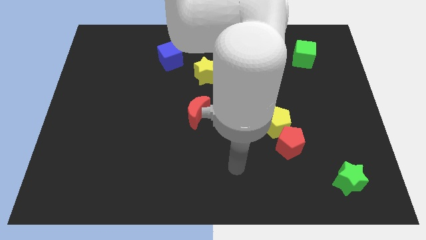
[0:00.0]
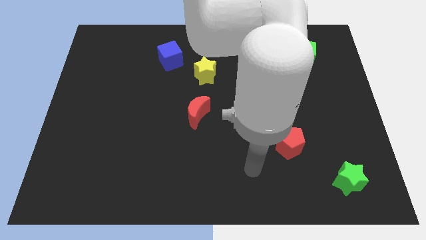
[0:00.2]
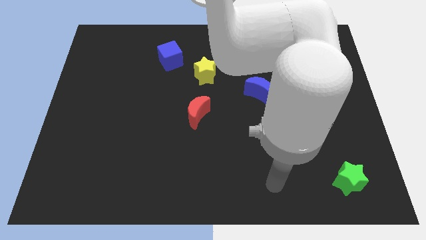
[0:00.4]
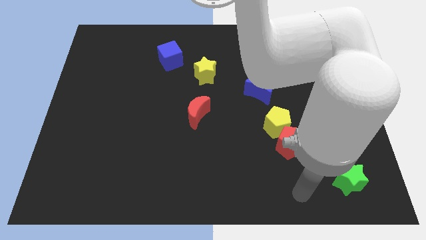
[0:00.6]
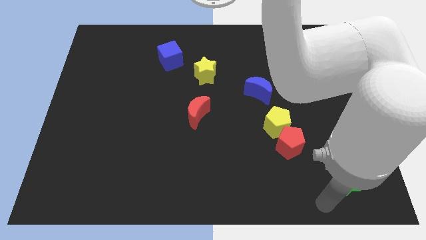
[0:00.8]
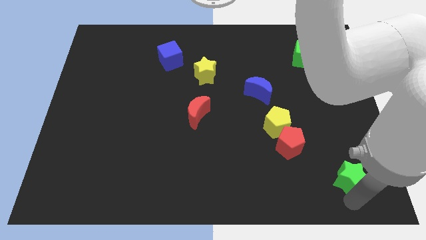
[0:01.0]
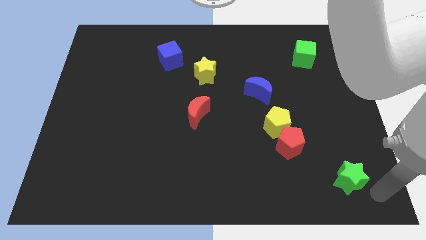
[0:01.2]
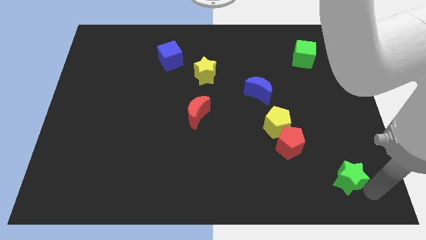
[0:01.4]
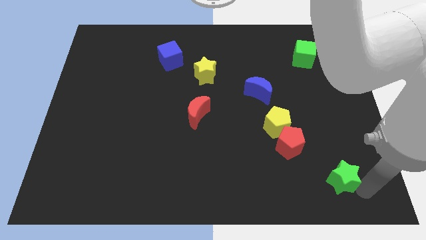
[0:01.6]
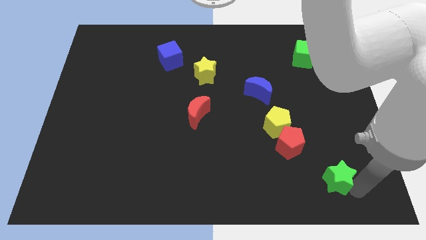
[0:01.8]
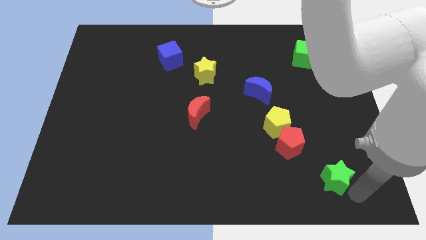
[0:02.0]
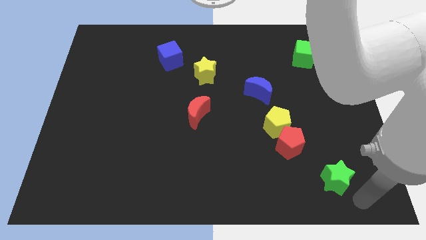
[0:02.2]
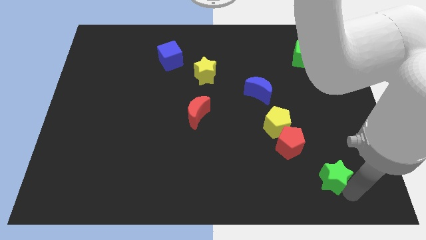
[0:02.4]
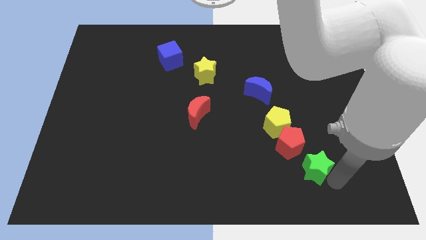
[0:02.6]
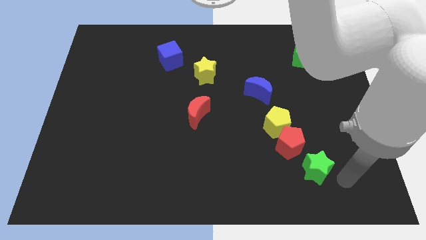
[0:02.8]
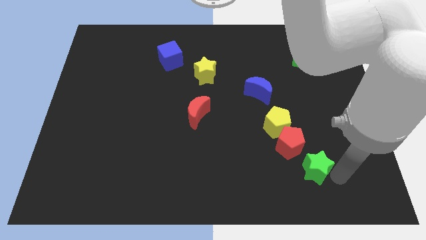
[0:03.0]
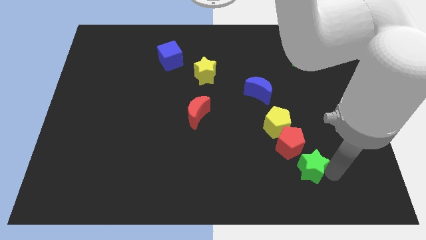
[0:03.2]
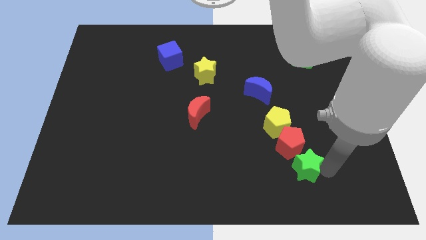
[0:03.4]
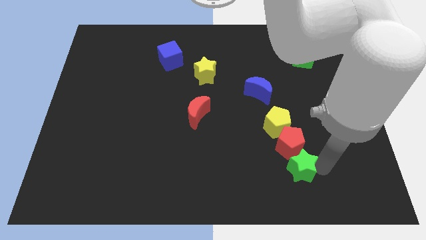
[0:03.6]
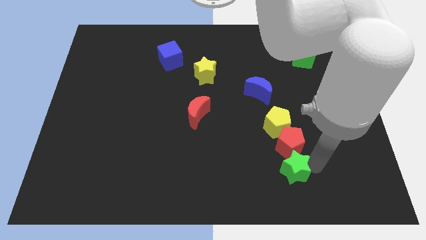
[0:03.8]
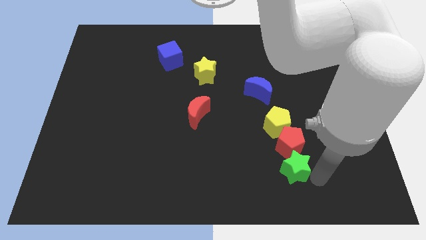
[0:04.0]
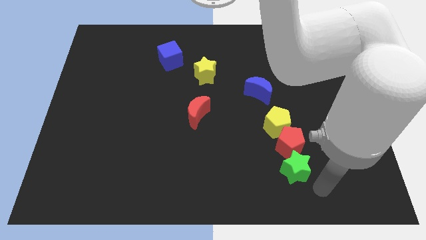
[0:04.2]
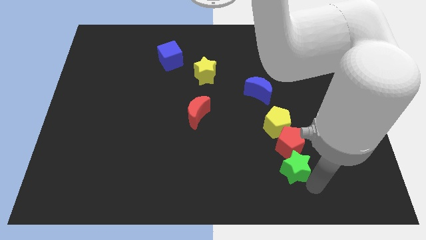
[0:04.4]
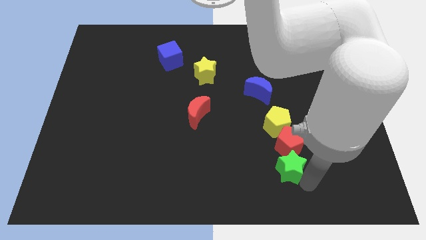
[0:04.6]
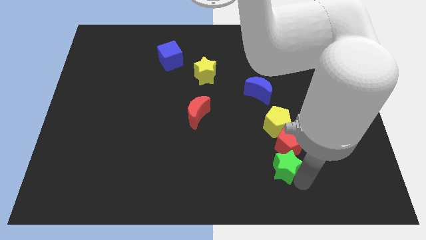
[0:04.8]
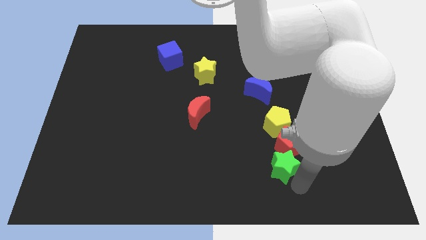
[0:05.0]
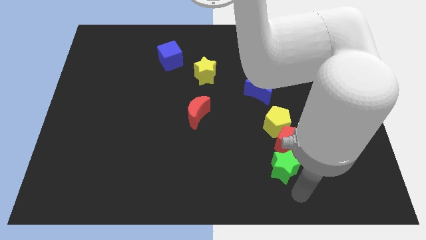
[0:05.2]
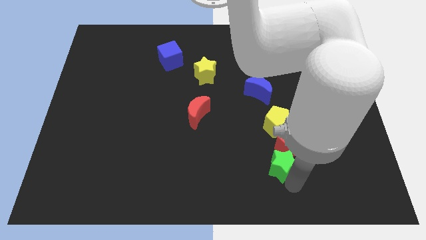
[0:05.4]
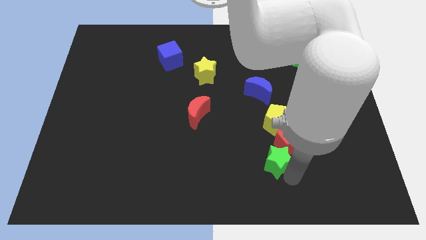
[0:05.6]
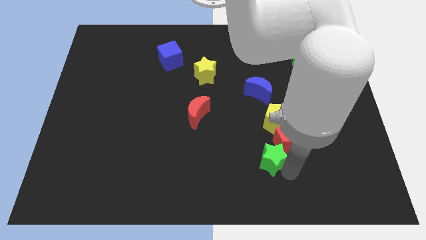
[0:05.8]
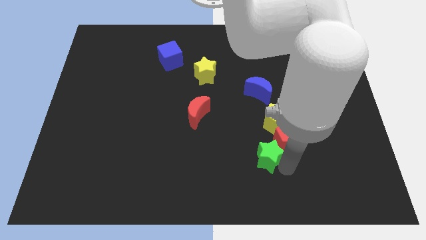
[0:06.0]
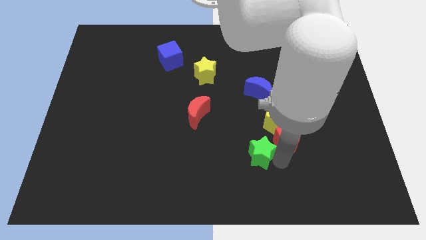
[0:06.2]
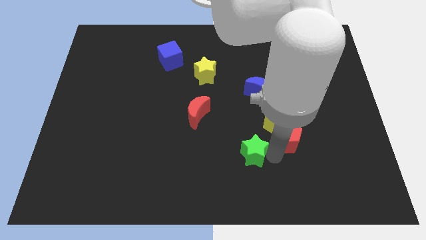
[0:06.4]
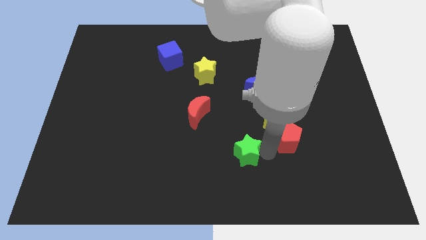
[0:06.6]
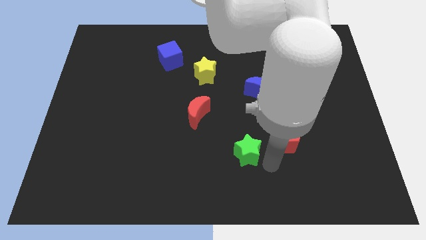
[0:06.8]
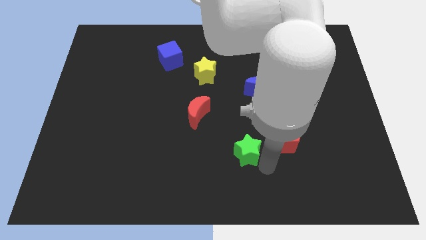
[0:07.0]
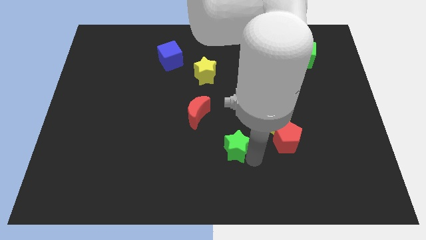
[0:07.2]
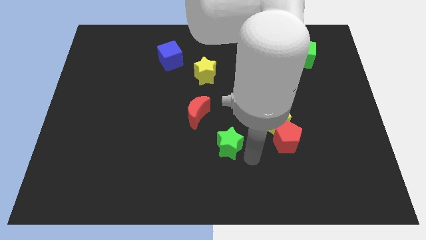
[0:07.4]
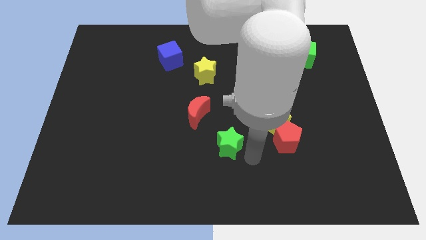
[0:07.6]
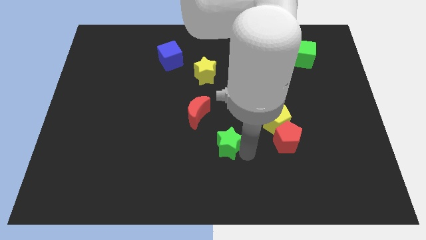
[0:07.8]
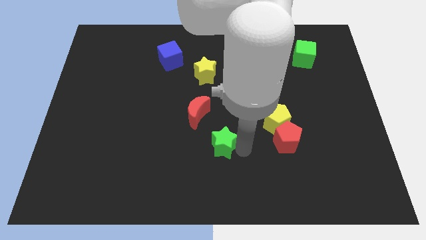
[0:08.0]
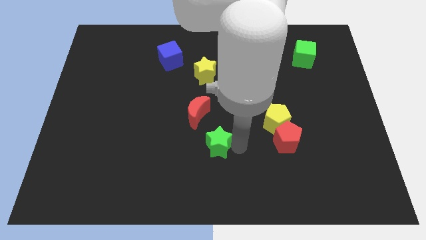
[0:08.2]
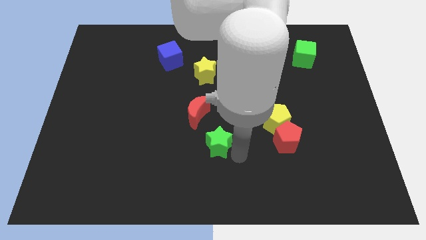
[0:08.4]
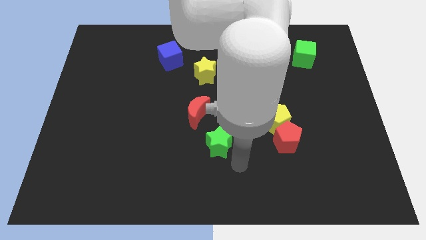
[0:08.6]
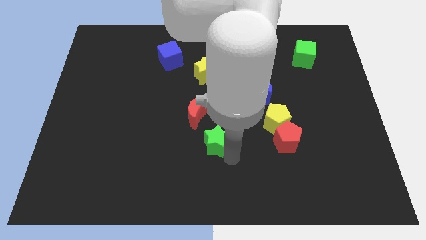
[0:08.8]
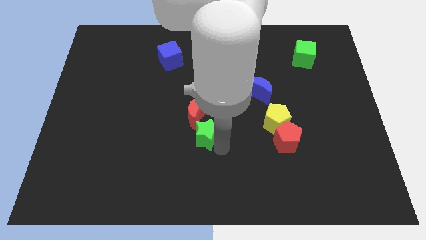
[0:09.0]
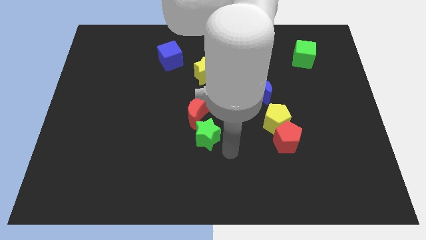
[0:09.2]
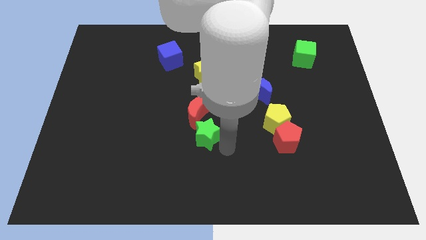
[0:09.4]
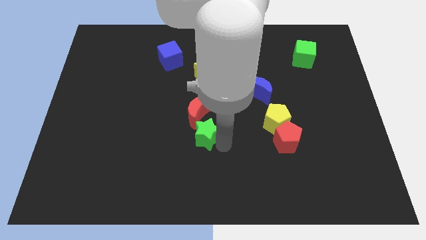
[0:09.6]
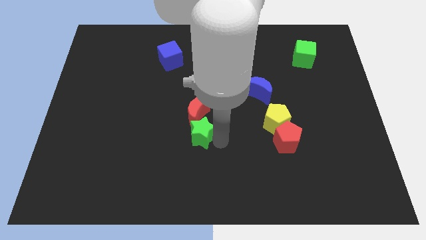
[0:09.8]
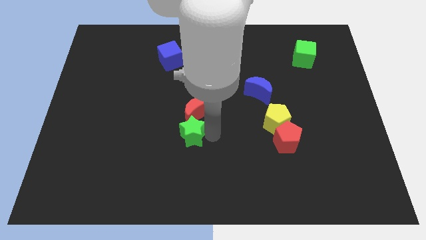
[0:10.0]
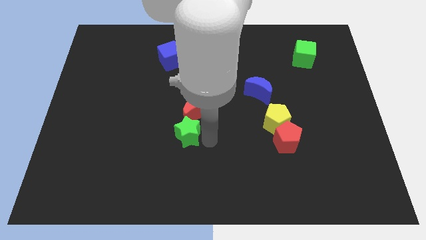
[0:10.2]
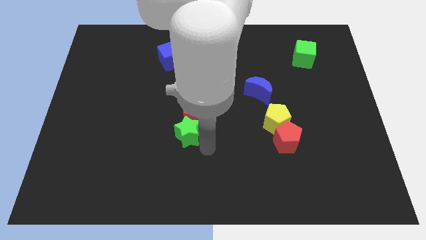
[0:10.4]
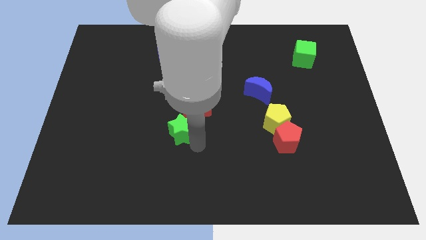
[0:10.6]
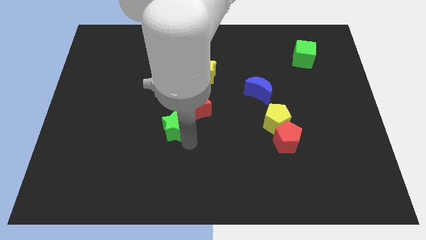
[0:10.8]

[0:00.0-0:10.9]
push the green star left of the red moon

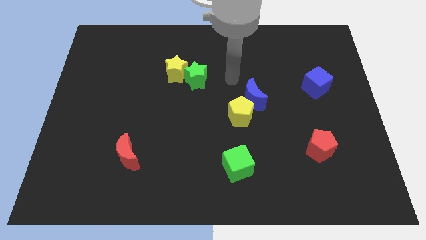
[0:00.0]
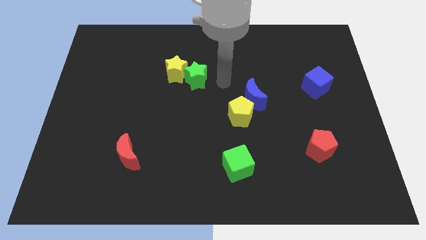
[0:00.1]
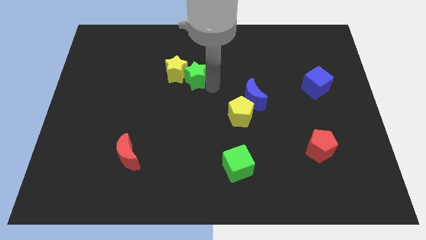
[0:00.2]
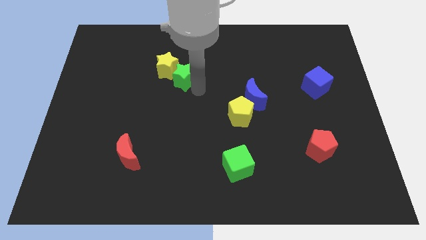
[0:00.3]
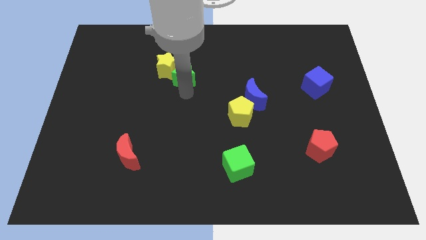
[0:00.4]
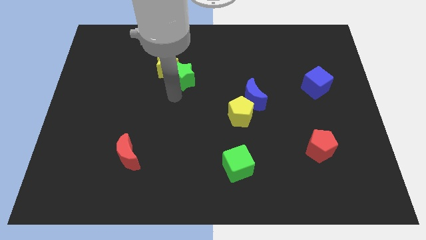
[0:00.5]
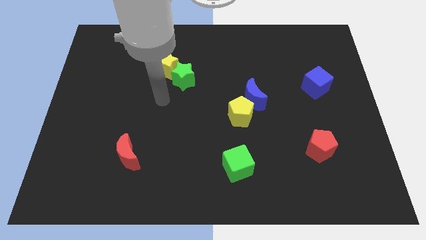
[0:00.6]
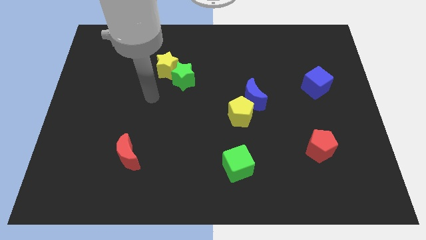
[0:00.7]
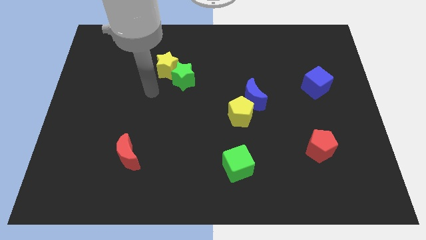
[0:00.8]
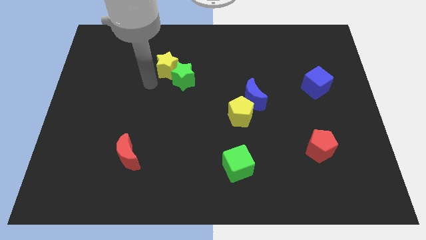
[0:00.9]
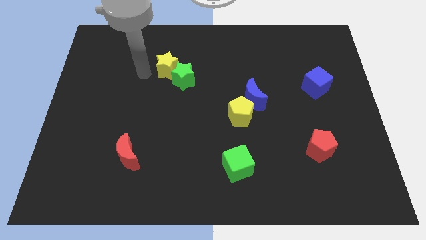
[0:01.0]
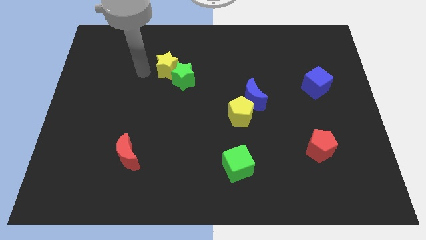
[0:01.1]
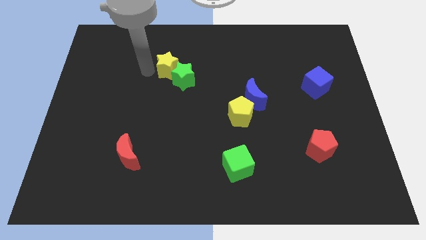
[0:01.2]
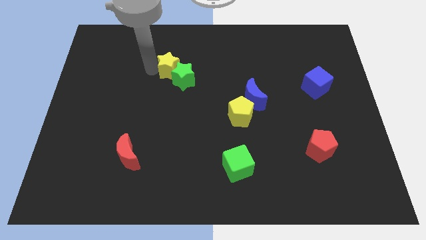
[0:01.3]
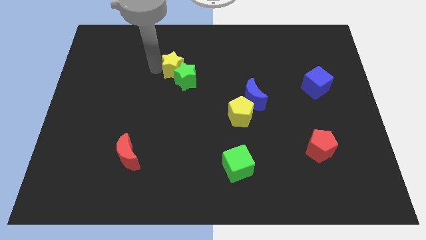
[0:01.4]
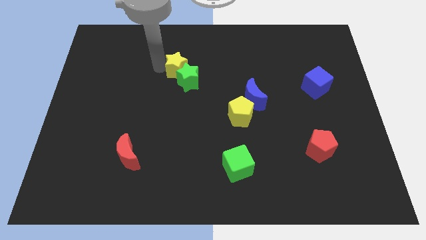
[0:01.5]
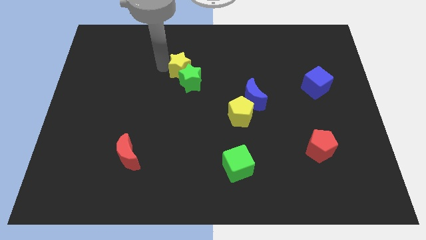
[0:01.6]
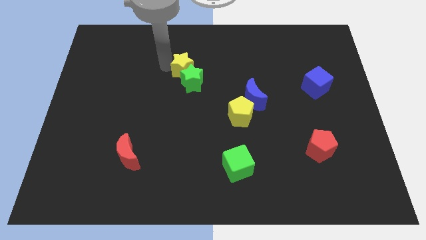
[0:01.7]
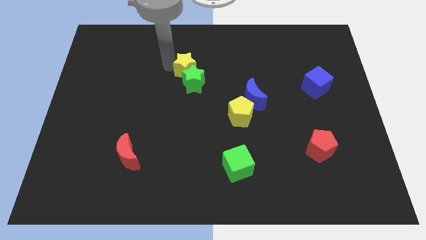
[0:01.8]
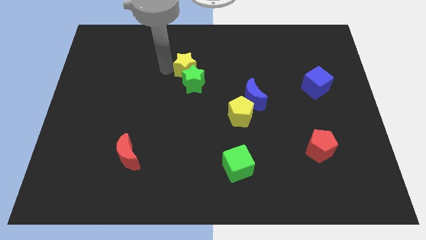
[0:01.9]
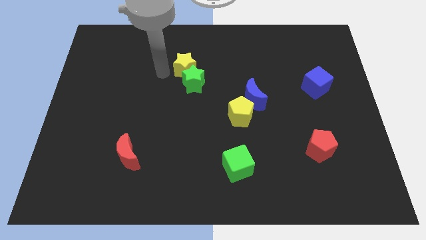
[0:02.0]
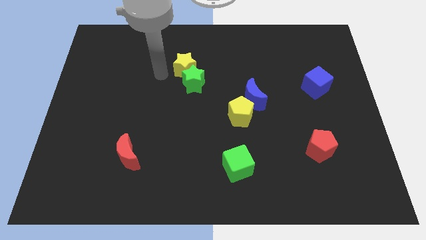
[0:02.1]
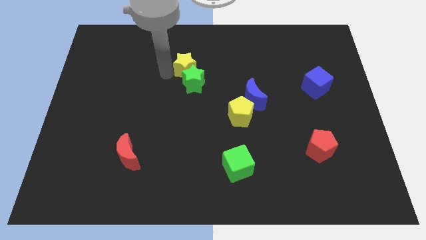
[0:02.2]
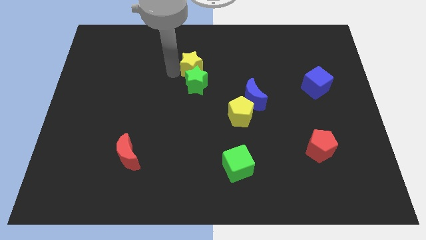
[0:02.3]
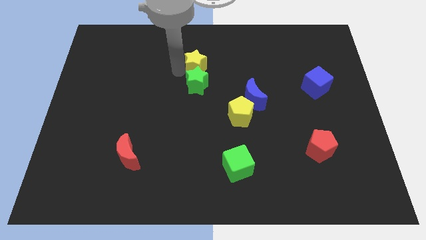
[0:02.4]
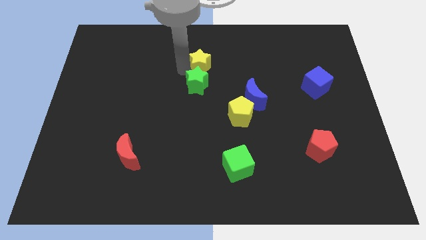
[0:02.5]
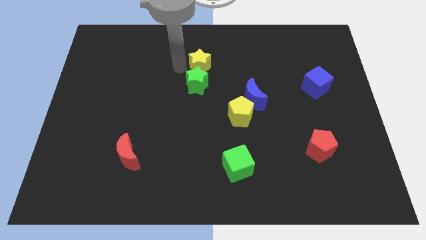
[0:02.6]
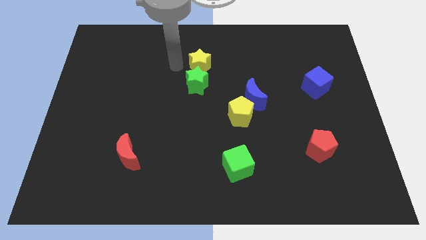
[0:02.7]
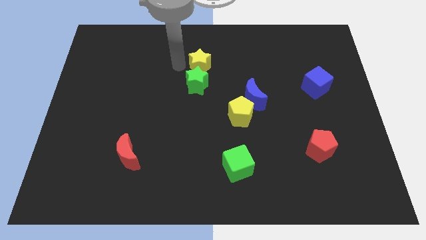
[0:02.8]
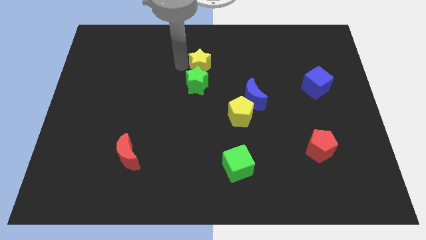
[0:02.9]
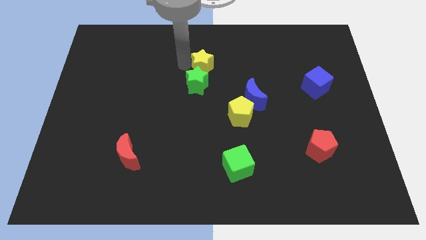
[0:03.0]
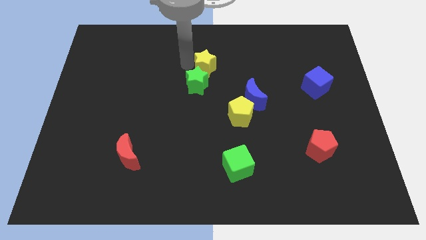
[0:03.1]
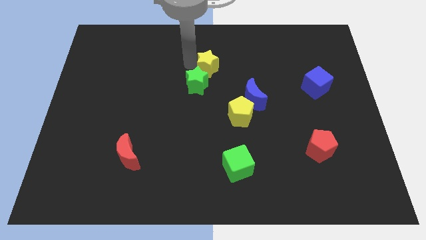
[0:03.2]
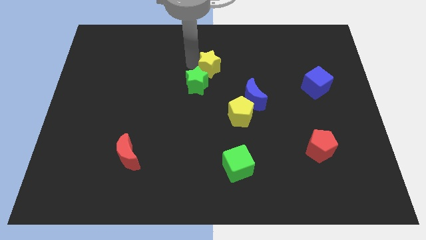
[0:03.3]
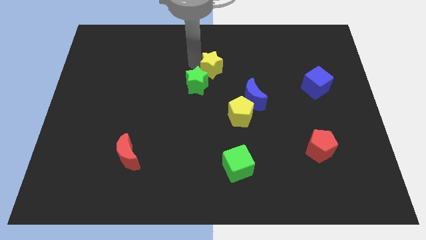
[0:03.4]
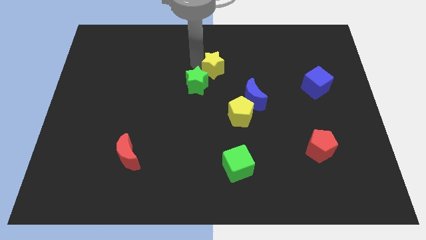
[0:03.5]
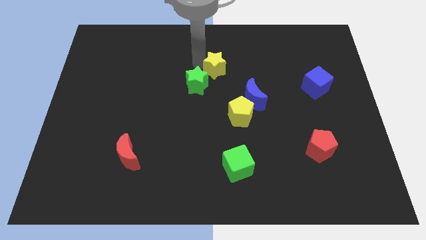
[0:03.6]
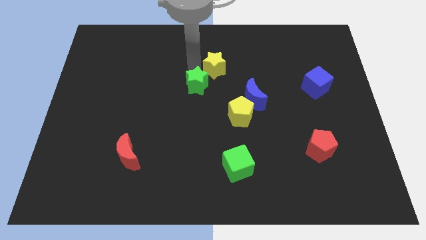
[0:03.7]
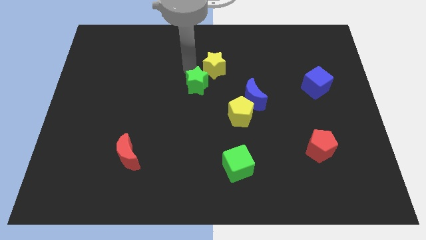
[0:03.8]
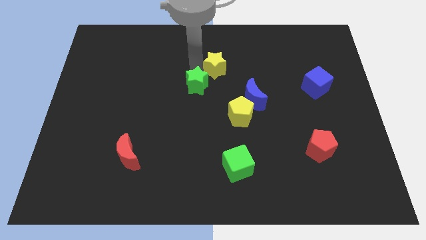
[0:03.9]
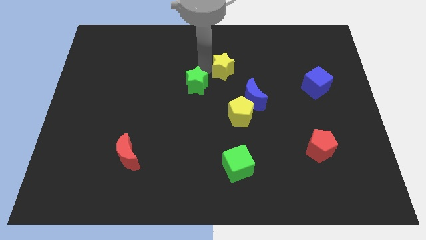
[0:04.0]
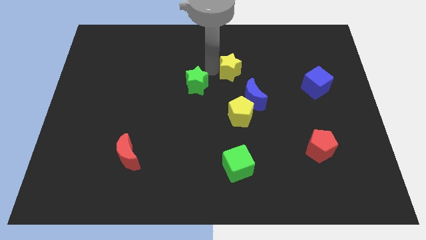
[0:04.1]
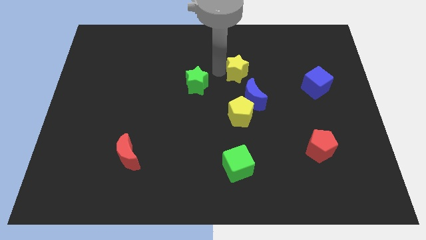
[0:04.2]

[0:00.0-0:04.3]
push the yellow star to the top of the blue moon
